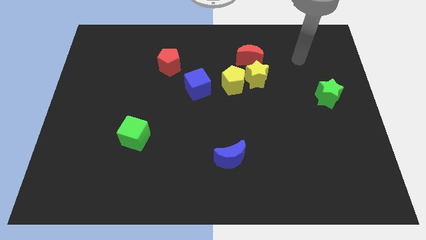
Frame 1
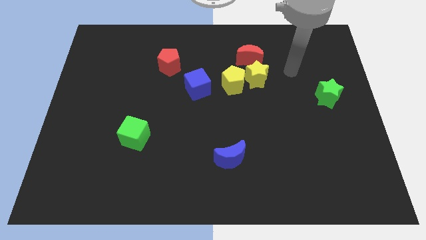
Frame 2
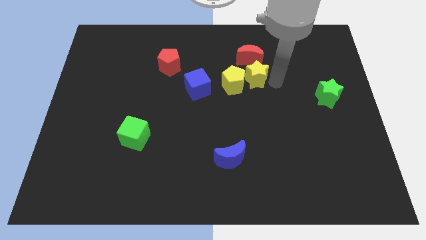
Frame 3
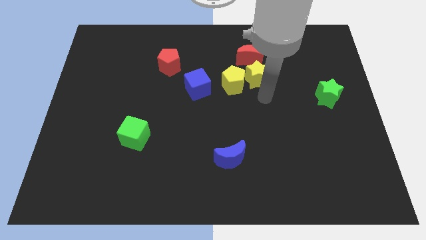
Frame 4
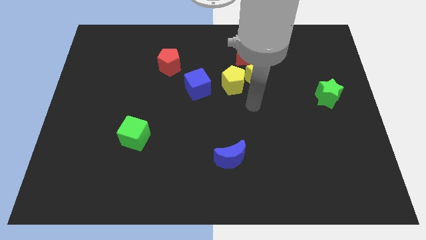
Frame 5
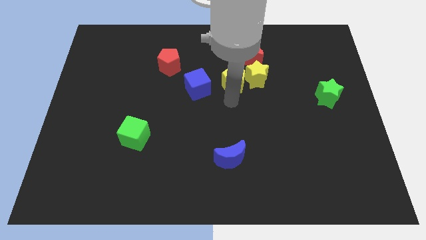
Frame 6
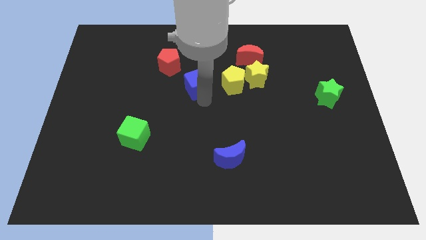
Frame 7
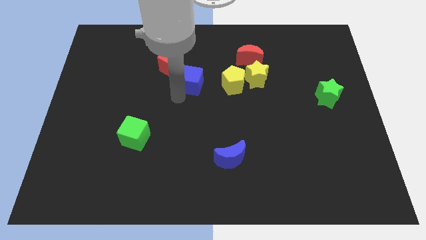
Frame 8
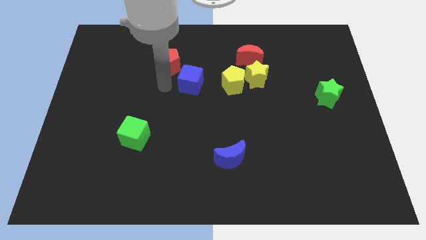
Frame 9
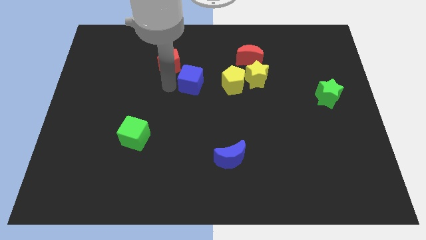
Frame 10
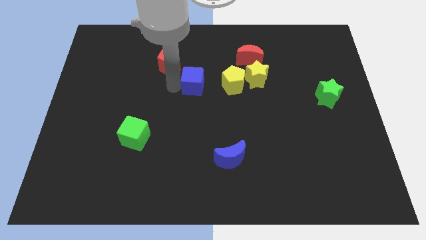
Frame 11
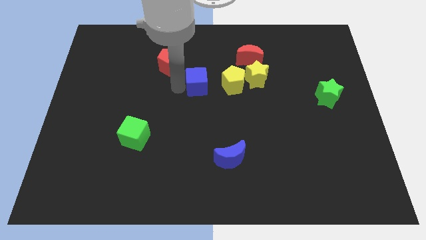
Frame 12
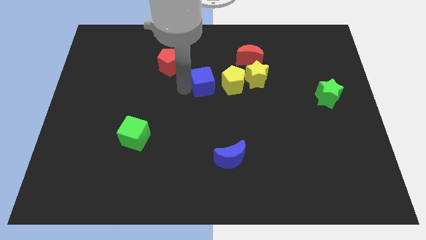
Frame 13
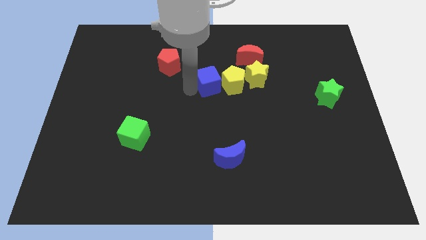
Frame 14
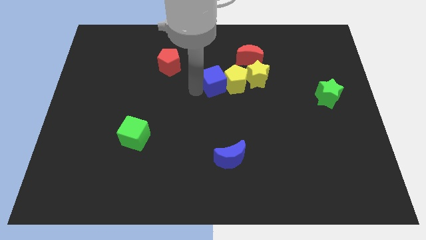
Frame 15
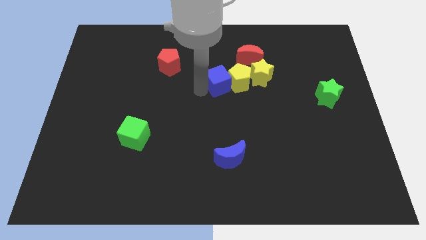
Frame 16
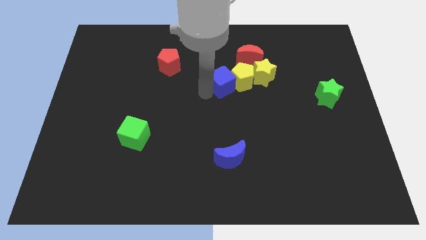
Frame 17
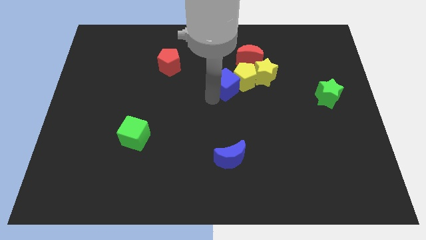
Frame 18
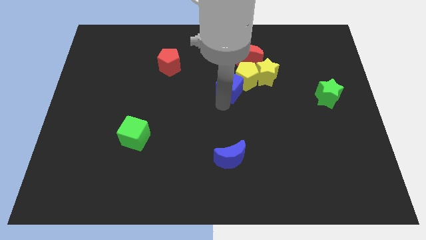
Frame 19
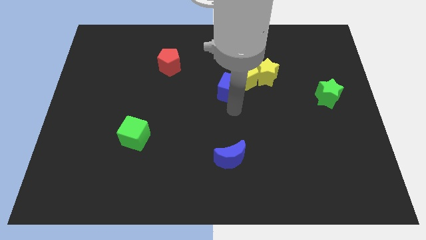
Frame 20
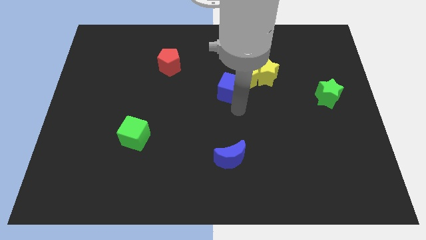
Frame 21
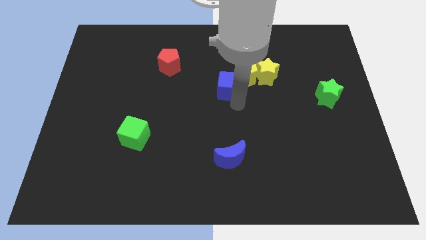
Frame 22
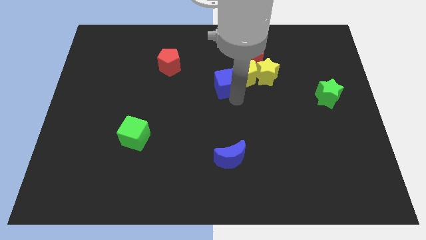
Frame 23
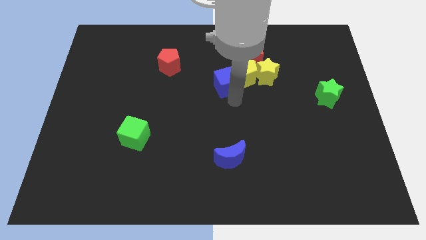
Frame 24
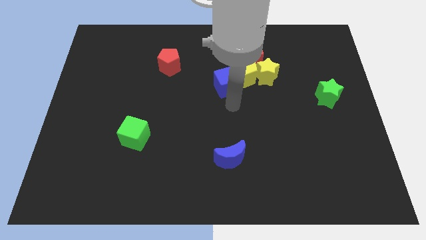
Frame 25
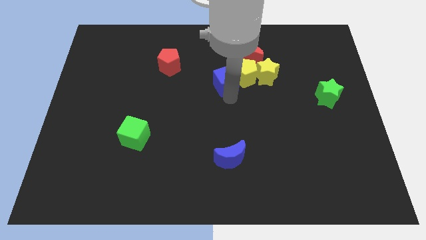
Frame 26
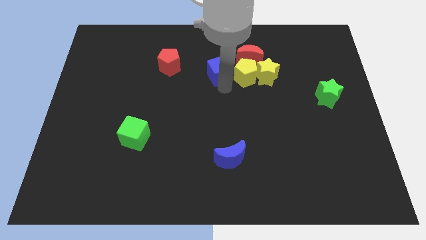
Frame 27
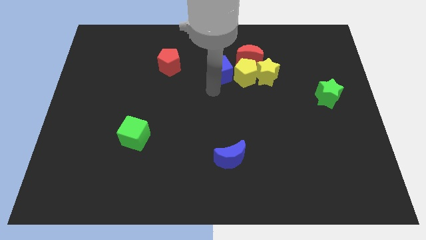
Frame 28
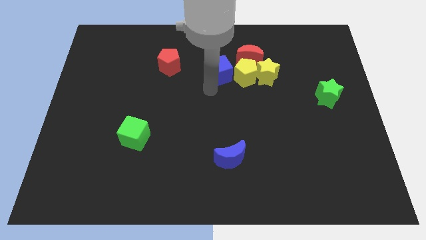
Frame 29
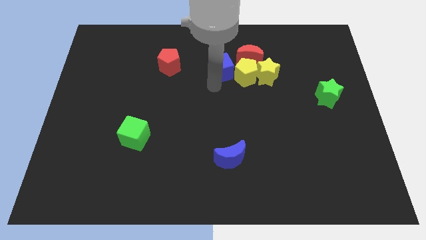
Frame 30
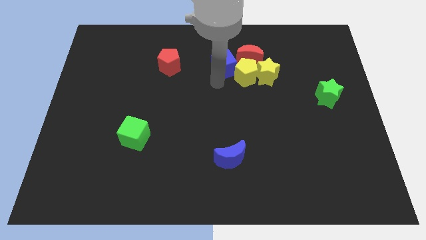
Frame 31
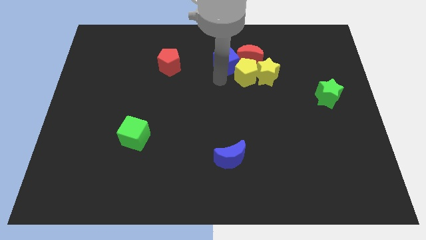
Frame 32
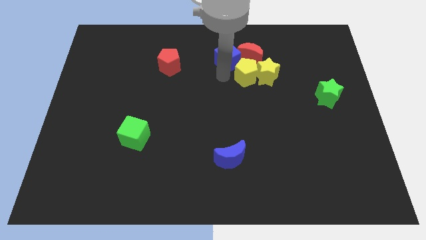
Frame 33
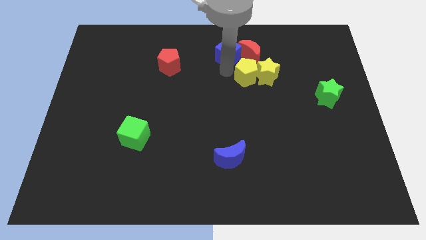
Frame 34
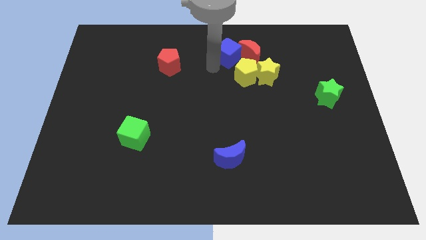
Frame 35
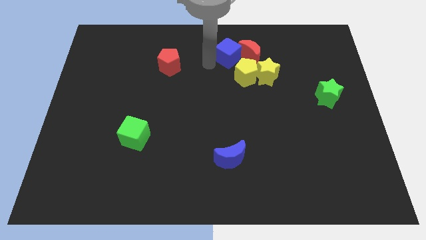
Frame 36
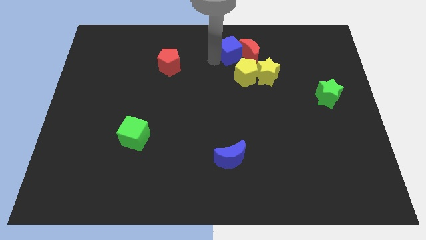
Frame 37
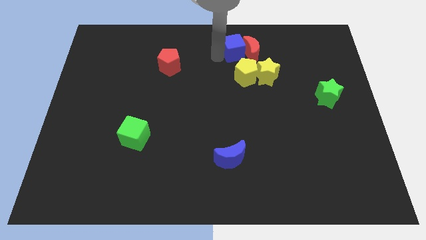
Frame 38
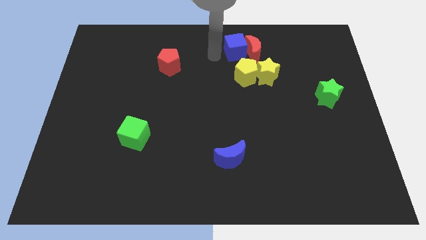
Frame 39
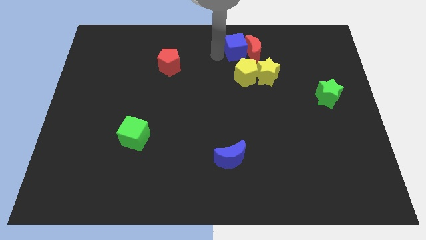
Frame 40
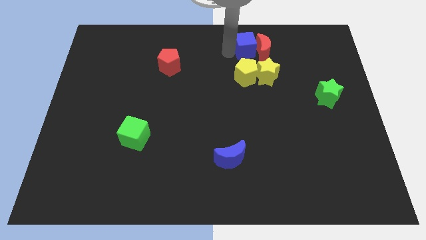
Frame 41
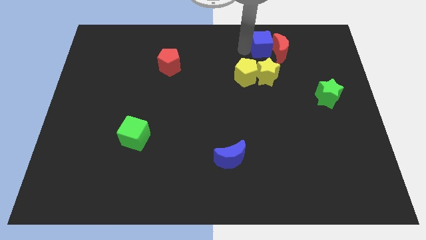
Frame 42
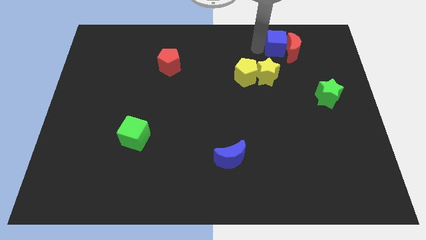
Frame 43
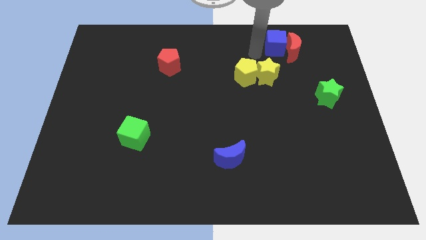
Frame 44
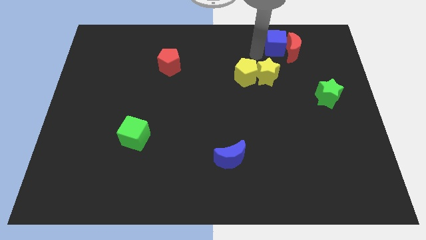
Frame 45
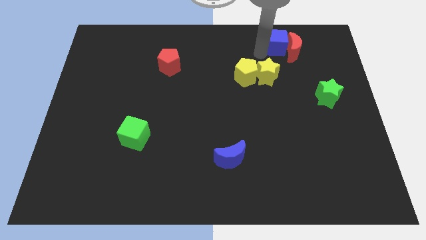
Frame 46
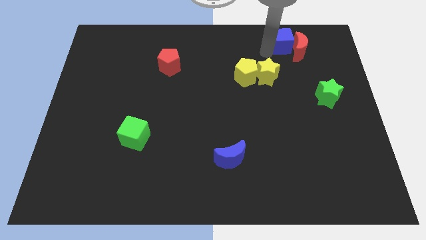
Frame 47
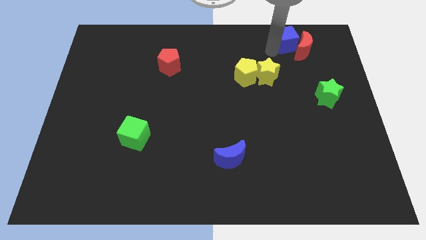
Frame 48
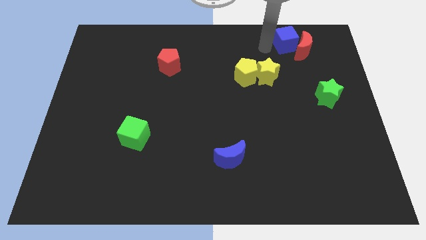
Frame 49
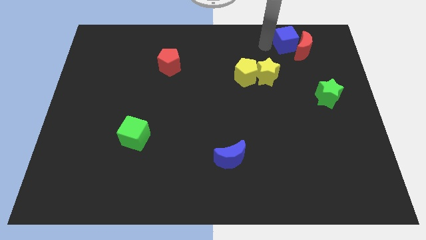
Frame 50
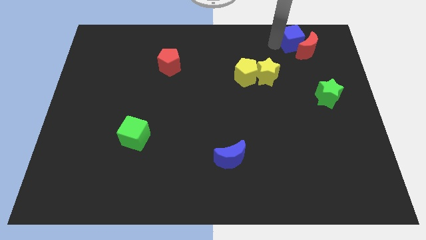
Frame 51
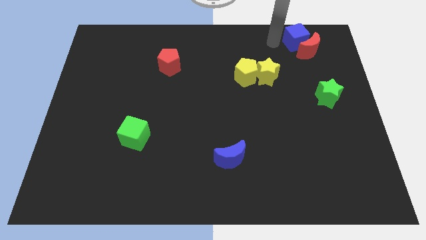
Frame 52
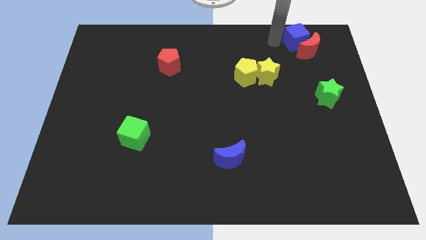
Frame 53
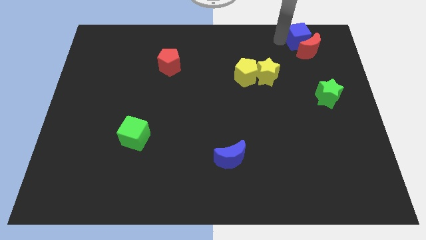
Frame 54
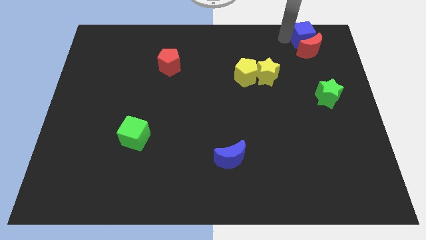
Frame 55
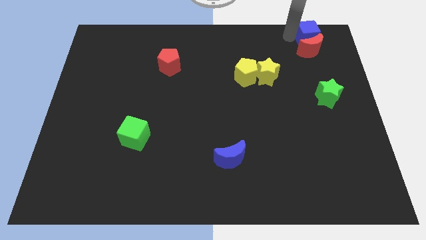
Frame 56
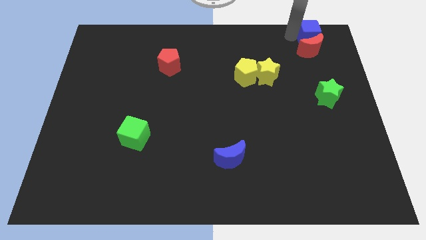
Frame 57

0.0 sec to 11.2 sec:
put the blue cube to the top right
